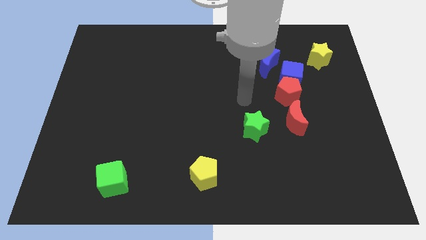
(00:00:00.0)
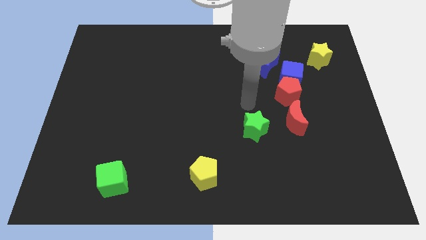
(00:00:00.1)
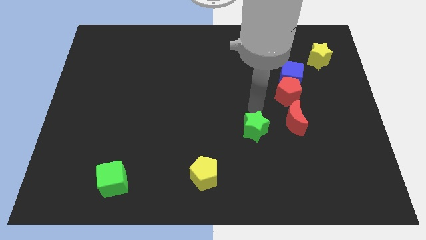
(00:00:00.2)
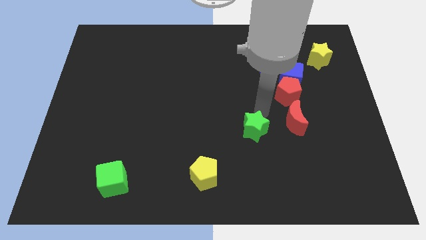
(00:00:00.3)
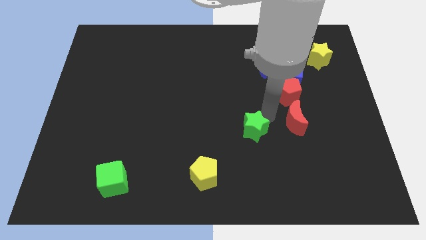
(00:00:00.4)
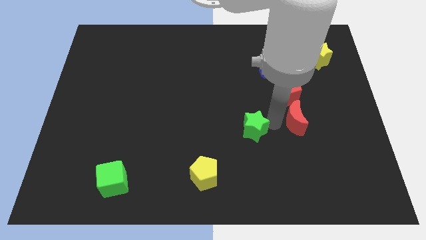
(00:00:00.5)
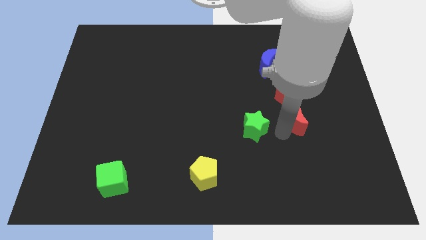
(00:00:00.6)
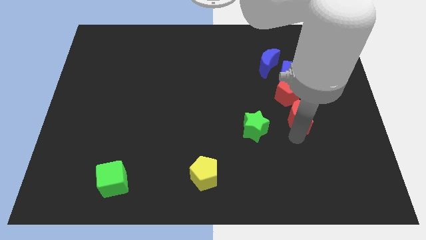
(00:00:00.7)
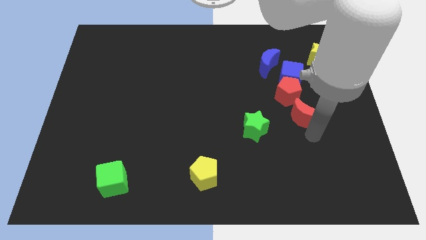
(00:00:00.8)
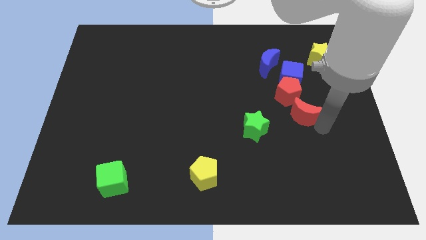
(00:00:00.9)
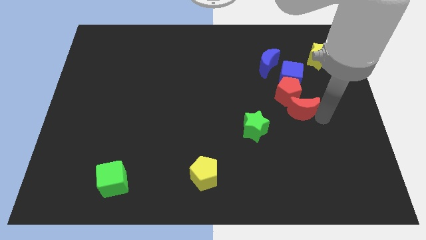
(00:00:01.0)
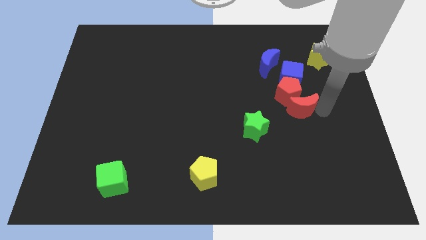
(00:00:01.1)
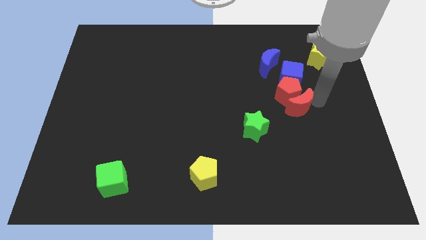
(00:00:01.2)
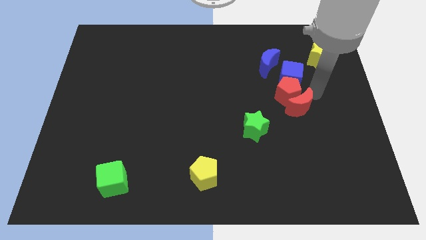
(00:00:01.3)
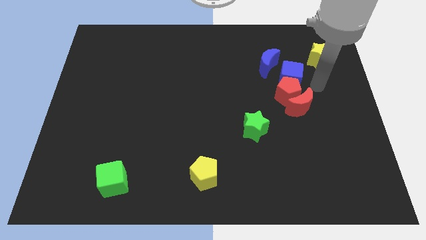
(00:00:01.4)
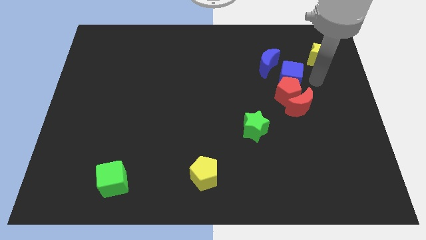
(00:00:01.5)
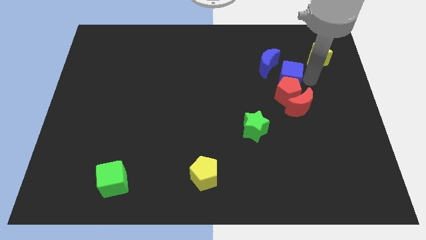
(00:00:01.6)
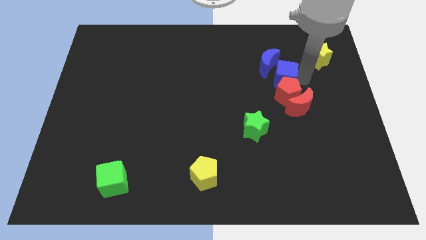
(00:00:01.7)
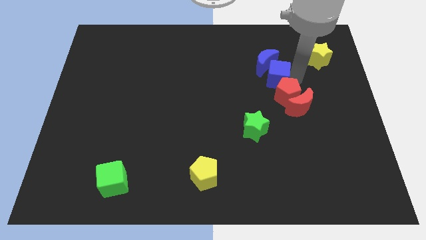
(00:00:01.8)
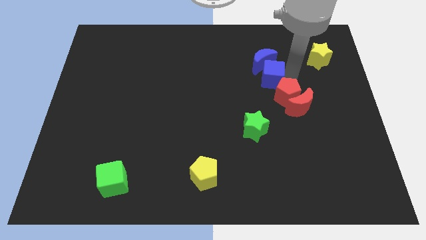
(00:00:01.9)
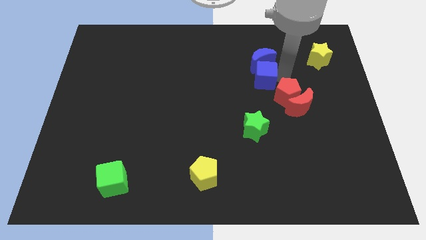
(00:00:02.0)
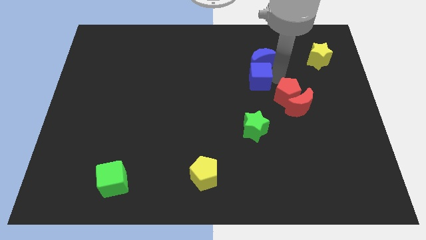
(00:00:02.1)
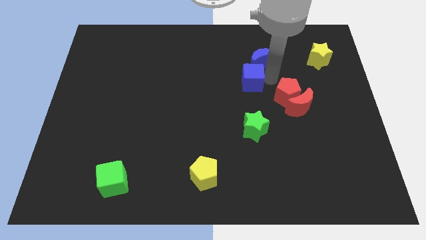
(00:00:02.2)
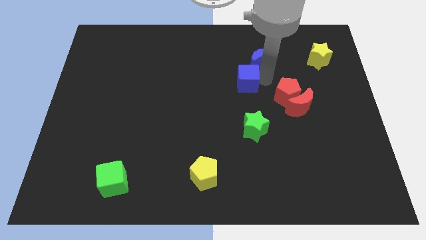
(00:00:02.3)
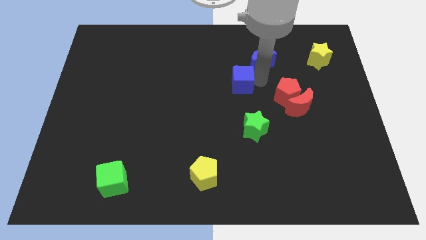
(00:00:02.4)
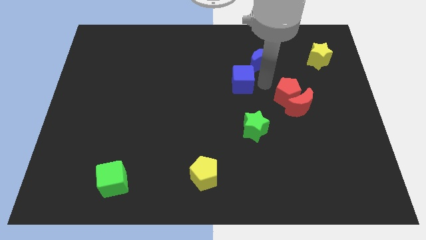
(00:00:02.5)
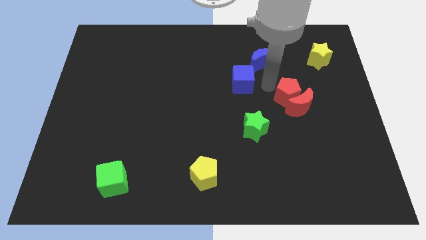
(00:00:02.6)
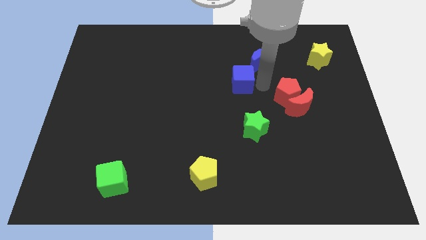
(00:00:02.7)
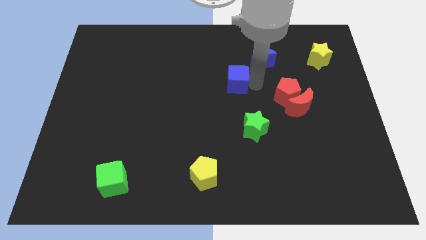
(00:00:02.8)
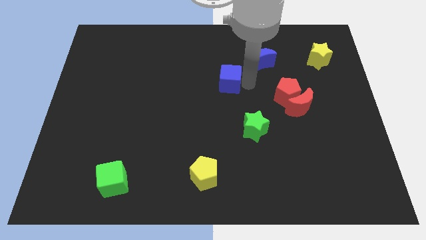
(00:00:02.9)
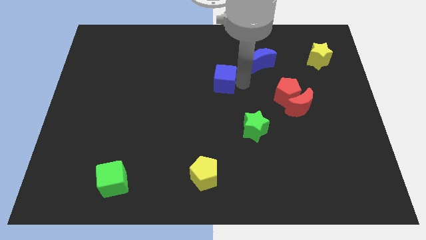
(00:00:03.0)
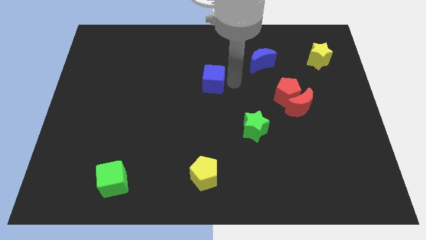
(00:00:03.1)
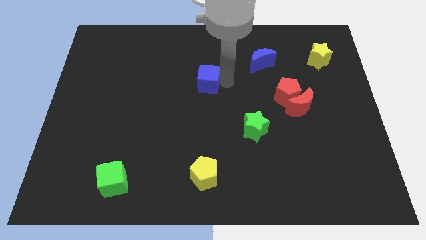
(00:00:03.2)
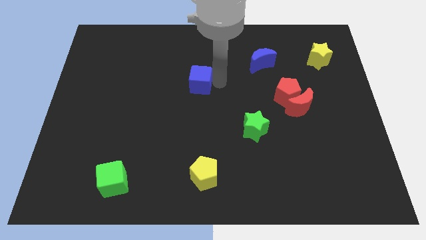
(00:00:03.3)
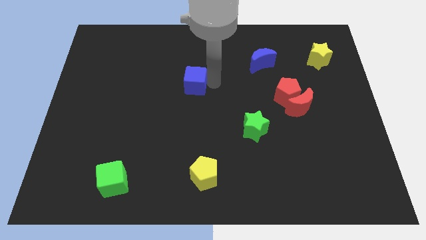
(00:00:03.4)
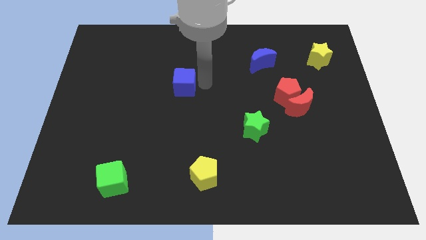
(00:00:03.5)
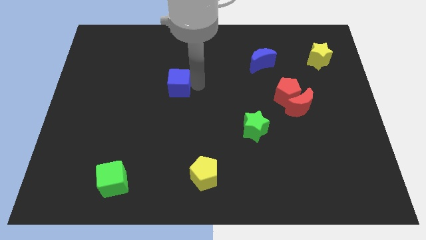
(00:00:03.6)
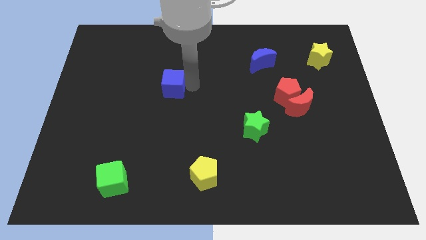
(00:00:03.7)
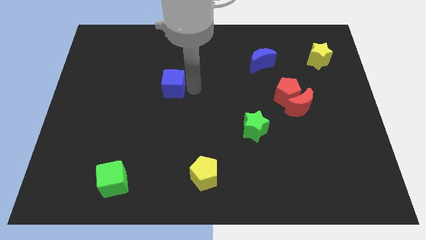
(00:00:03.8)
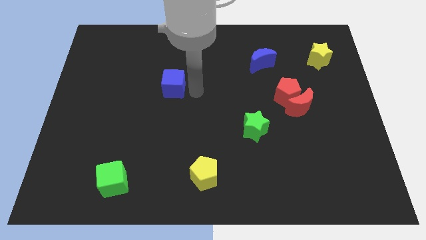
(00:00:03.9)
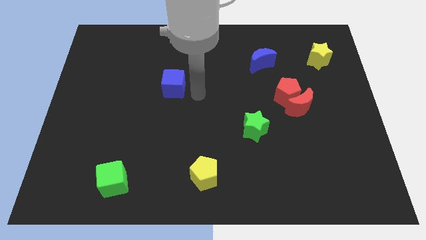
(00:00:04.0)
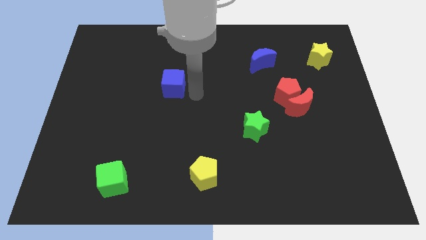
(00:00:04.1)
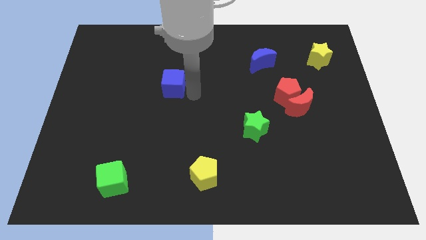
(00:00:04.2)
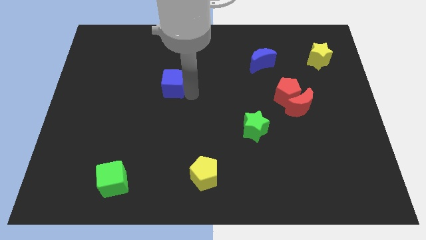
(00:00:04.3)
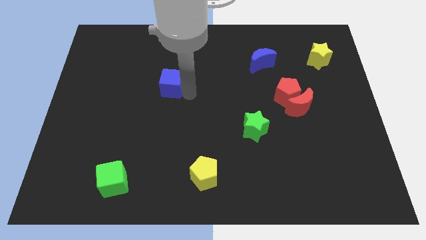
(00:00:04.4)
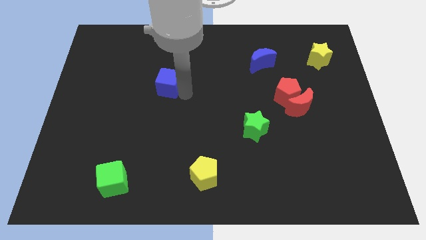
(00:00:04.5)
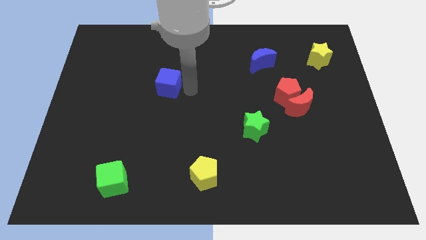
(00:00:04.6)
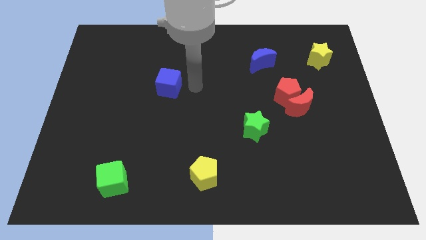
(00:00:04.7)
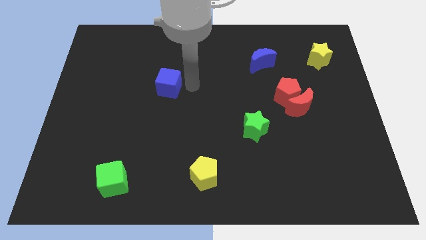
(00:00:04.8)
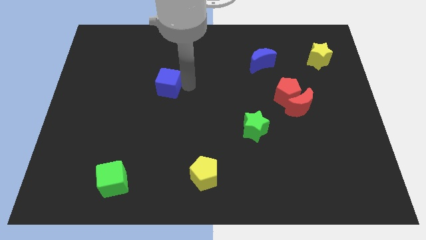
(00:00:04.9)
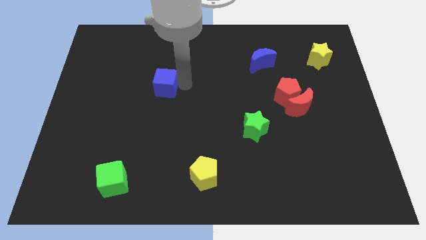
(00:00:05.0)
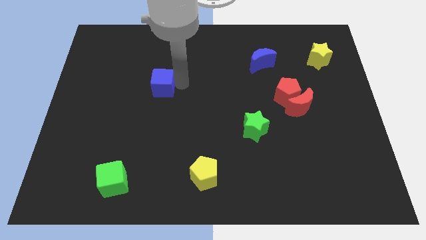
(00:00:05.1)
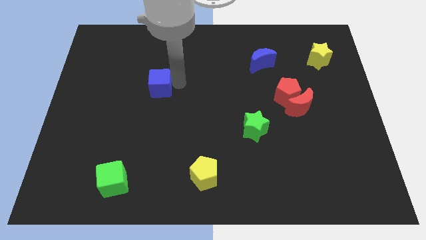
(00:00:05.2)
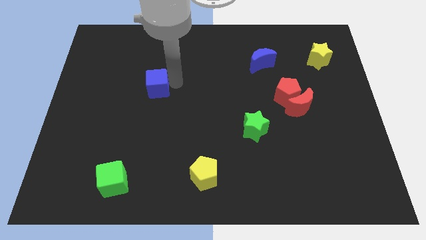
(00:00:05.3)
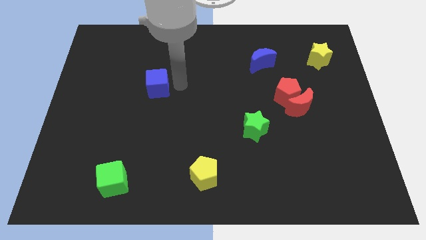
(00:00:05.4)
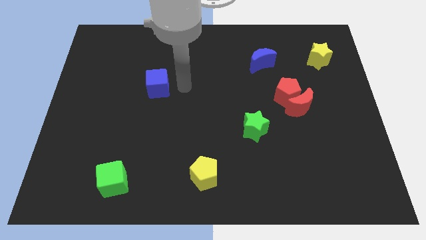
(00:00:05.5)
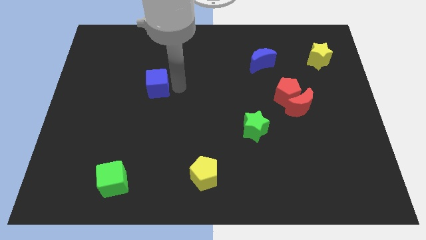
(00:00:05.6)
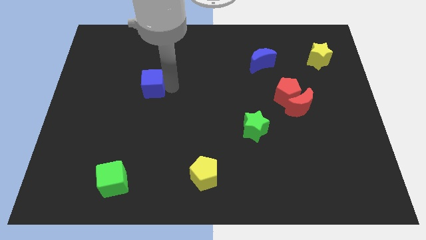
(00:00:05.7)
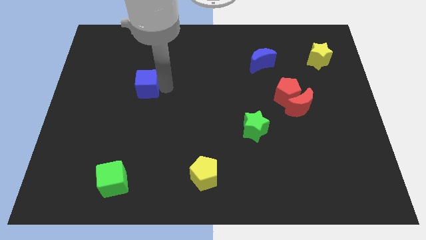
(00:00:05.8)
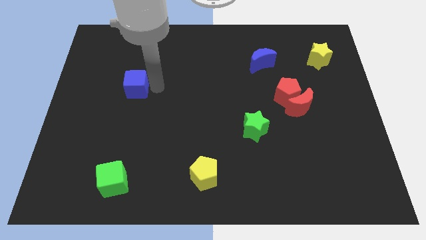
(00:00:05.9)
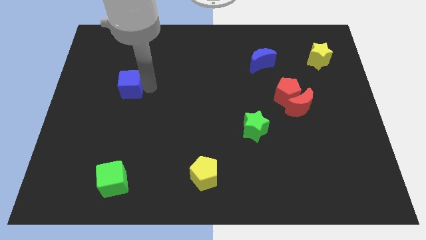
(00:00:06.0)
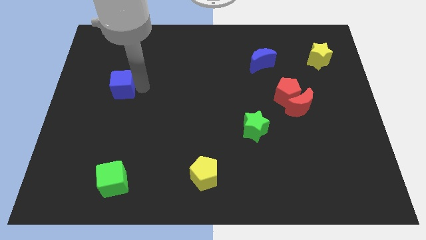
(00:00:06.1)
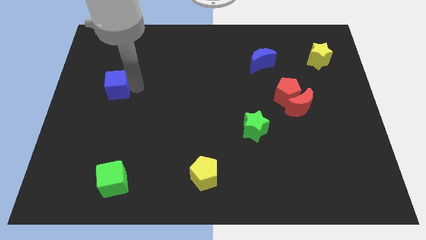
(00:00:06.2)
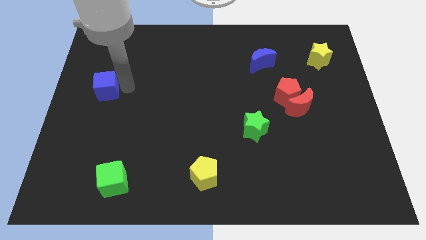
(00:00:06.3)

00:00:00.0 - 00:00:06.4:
put the blue cube to the left side of the board
